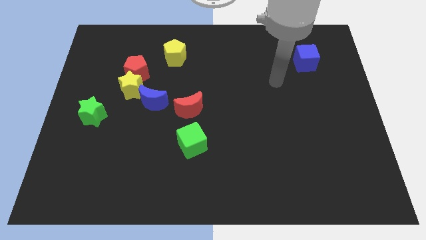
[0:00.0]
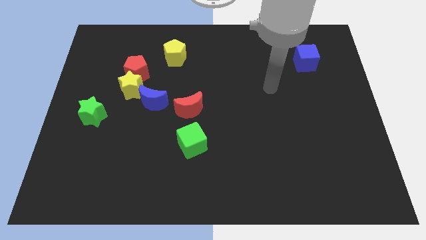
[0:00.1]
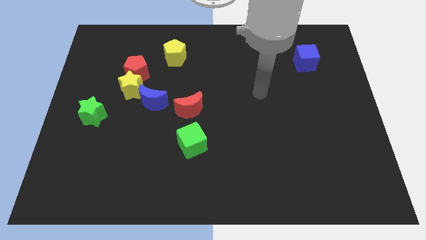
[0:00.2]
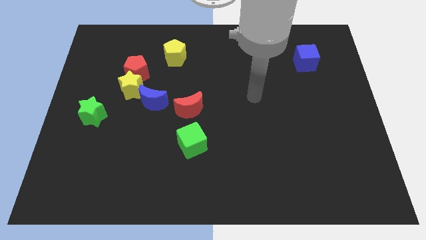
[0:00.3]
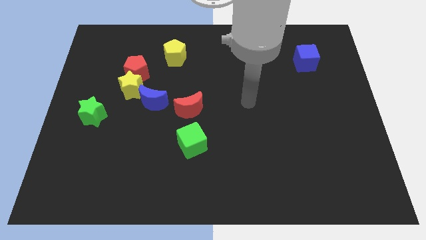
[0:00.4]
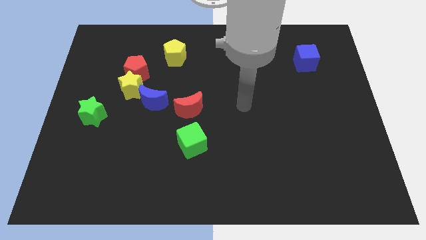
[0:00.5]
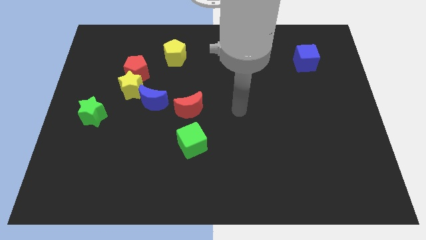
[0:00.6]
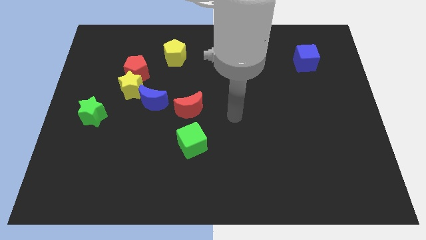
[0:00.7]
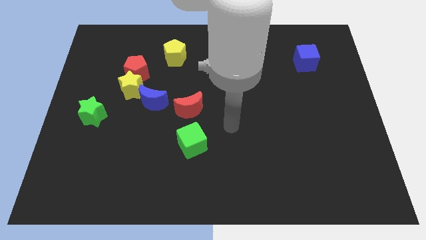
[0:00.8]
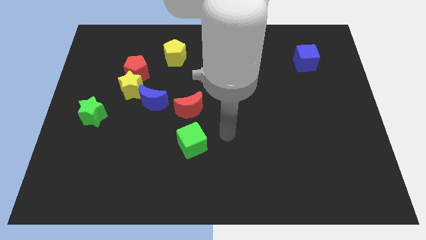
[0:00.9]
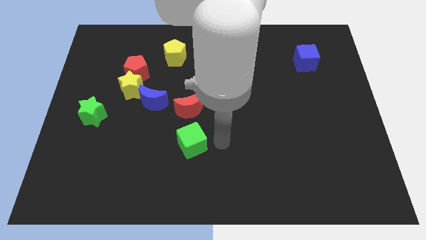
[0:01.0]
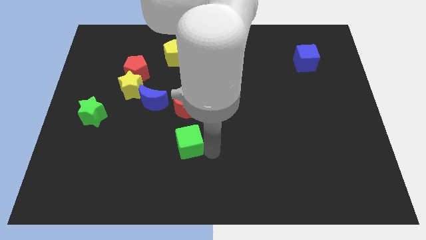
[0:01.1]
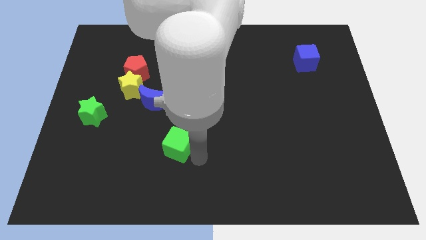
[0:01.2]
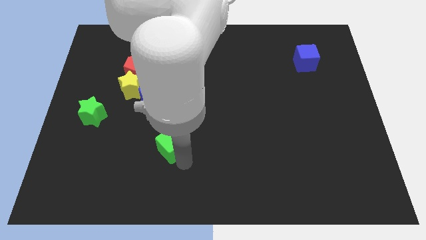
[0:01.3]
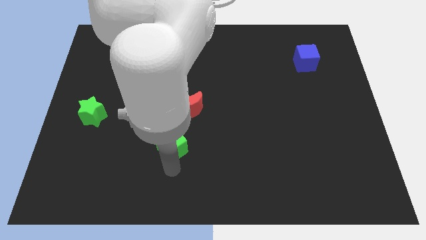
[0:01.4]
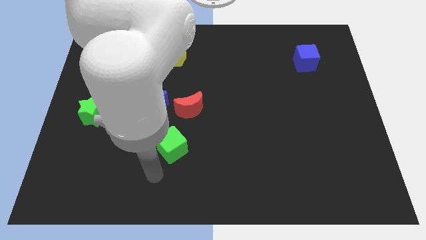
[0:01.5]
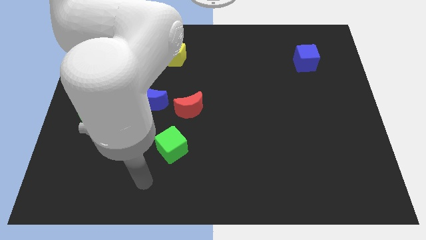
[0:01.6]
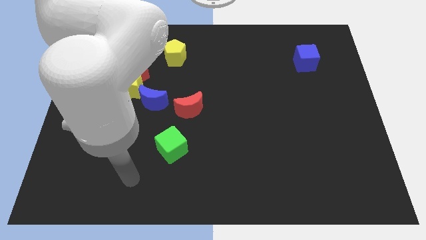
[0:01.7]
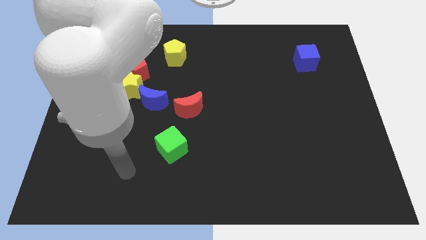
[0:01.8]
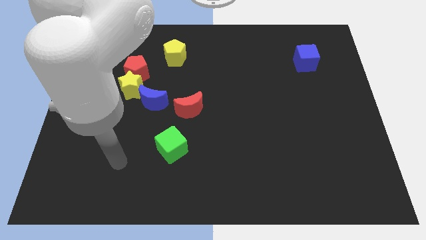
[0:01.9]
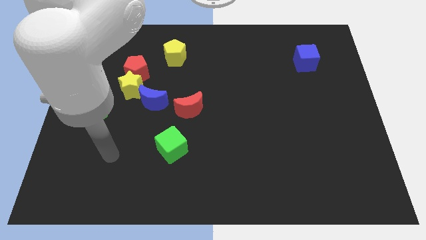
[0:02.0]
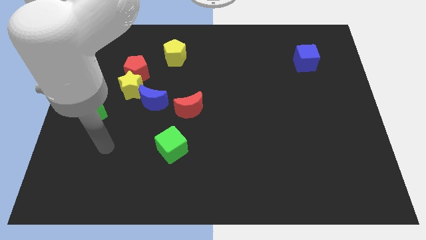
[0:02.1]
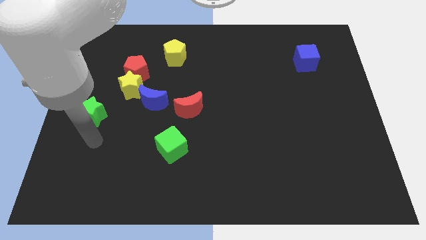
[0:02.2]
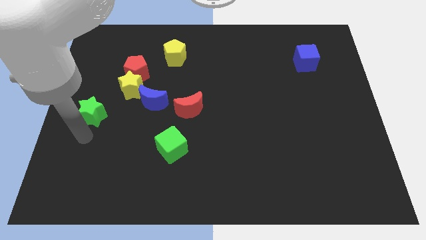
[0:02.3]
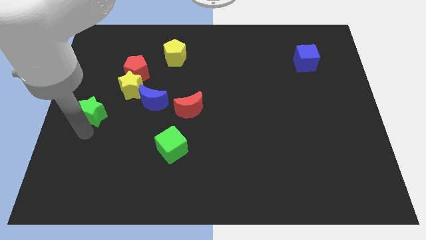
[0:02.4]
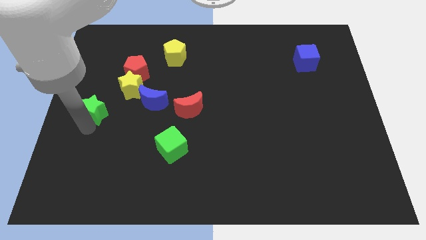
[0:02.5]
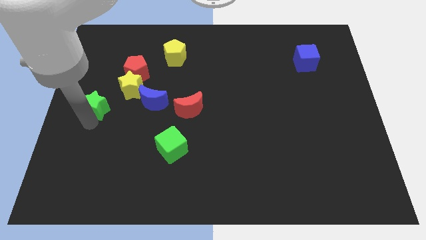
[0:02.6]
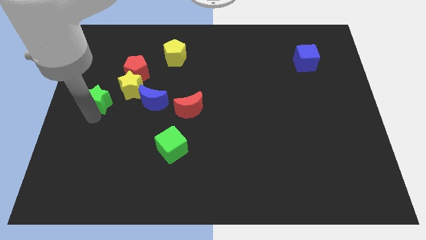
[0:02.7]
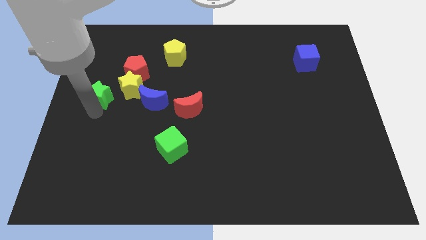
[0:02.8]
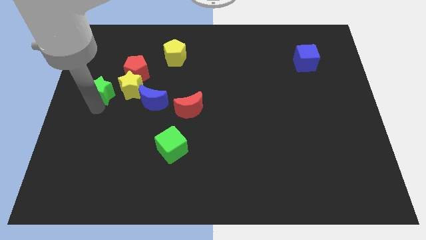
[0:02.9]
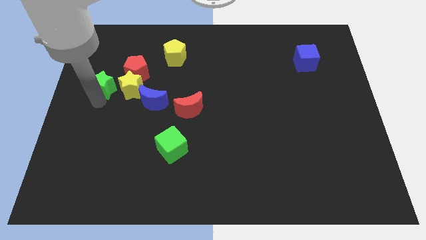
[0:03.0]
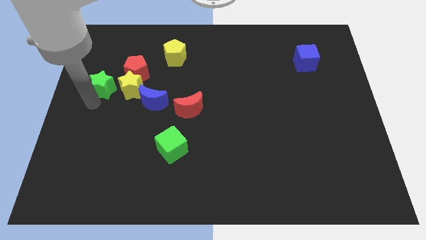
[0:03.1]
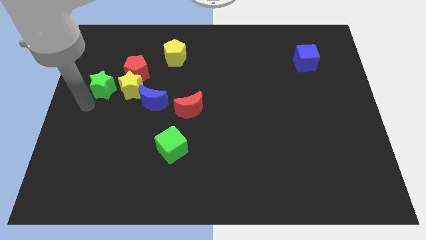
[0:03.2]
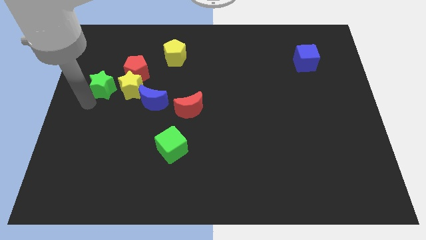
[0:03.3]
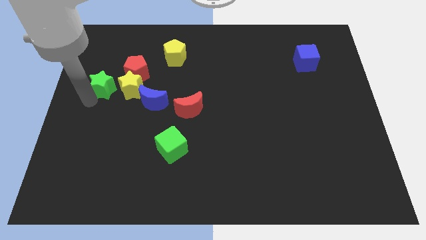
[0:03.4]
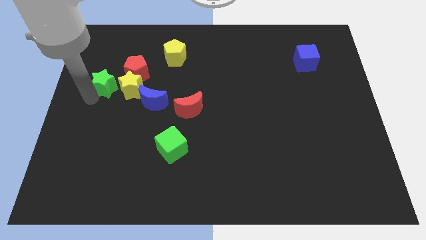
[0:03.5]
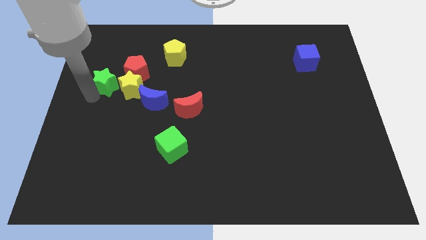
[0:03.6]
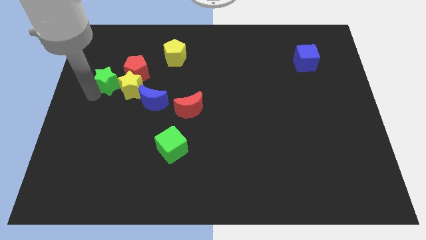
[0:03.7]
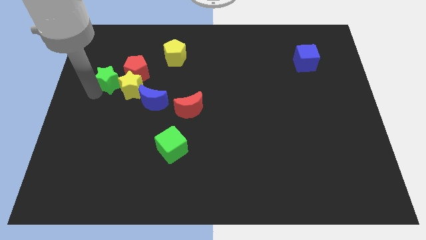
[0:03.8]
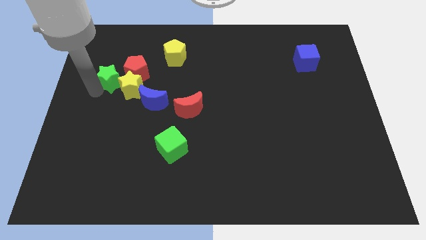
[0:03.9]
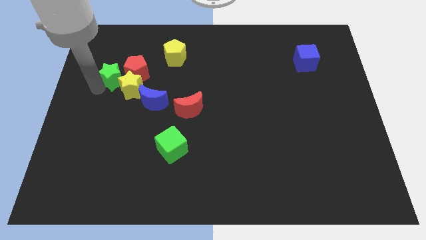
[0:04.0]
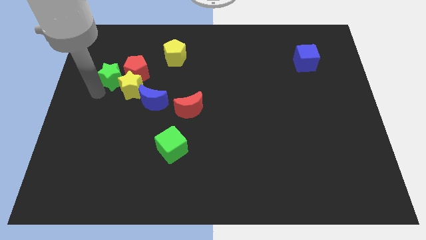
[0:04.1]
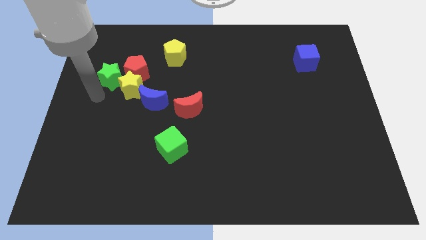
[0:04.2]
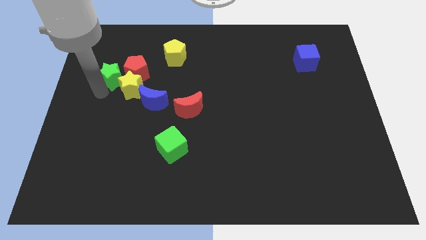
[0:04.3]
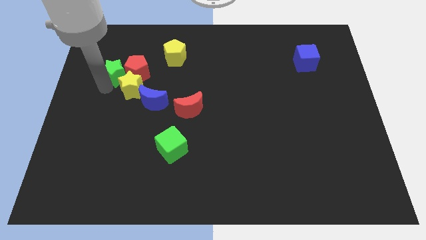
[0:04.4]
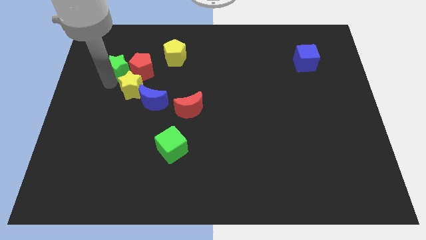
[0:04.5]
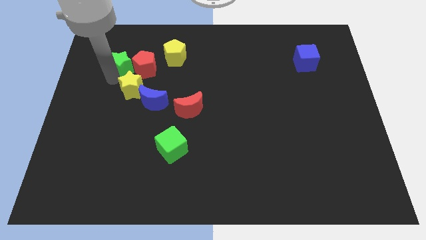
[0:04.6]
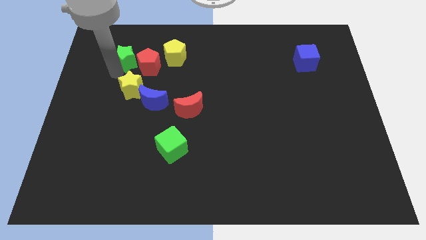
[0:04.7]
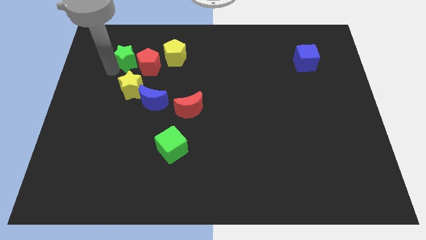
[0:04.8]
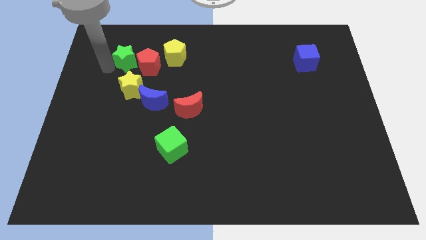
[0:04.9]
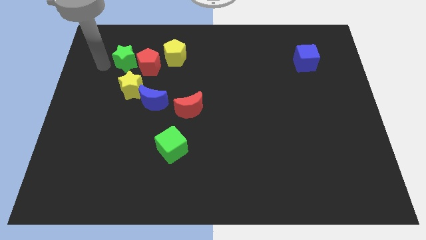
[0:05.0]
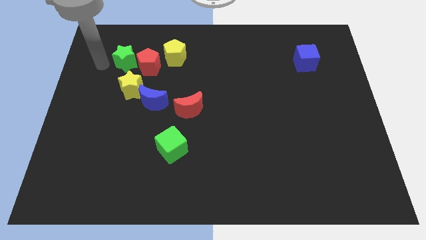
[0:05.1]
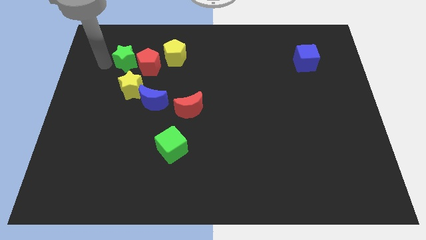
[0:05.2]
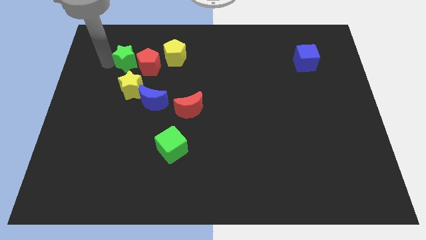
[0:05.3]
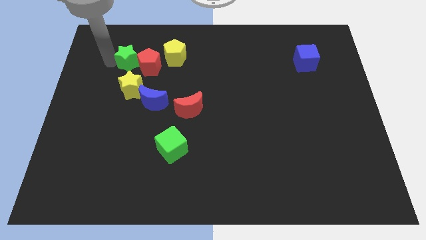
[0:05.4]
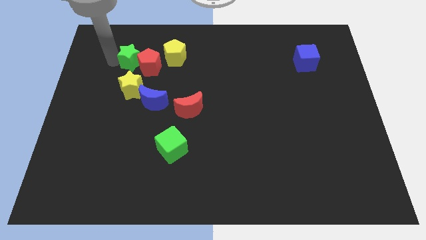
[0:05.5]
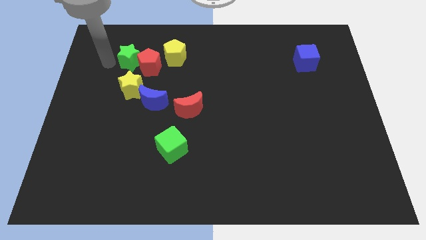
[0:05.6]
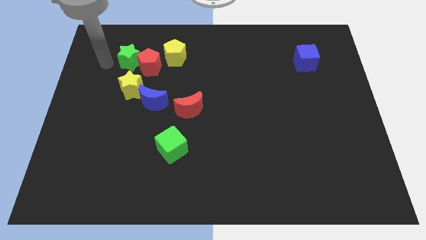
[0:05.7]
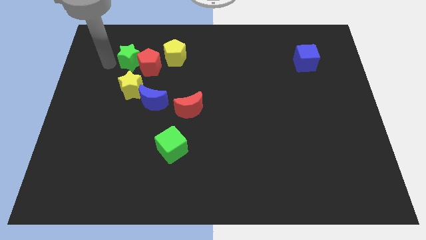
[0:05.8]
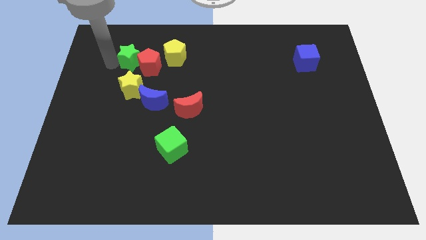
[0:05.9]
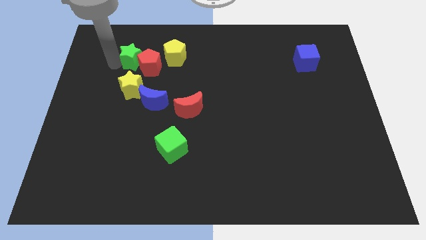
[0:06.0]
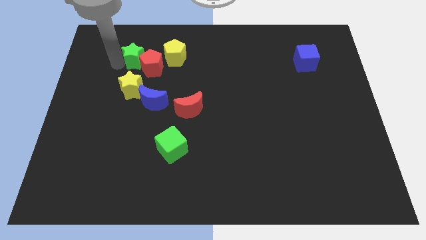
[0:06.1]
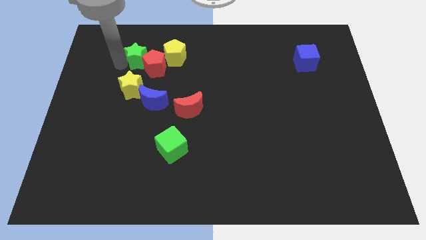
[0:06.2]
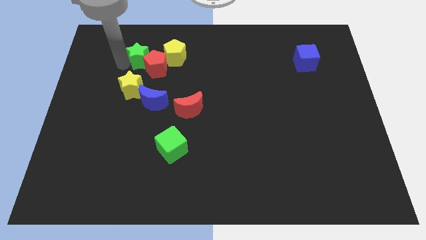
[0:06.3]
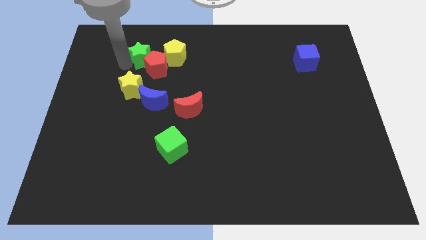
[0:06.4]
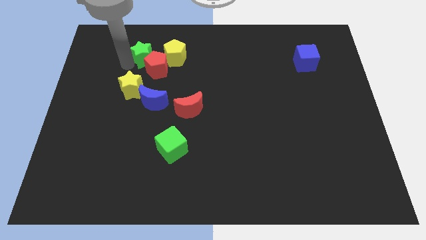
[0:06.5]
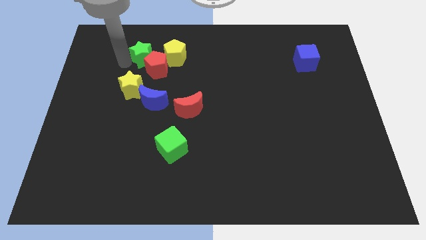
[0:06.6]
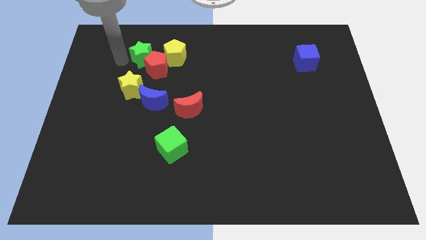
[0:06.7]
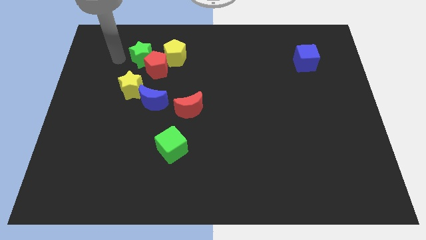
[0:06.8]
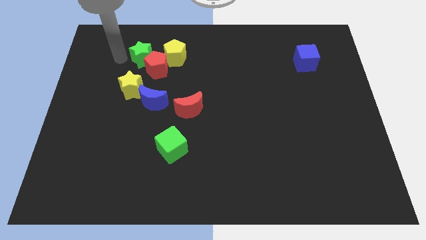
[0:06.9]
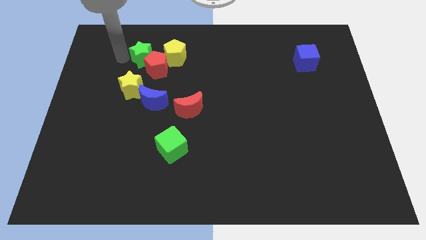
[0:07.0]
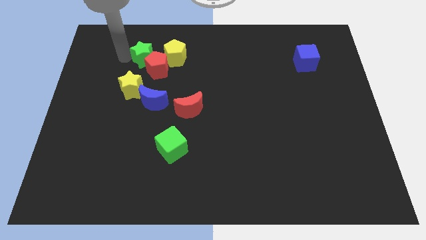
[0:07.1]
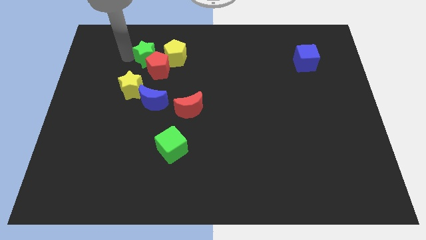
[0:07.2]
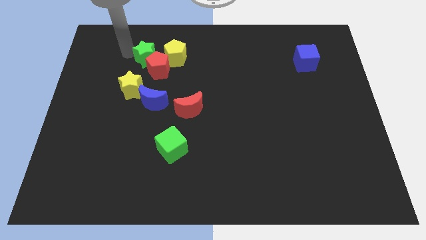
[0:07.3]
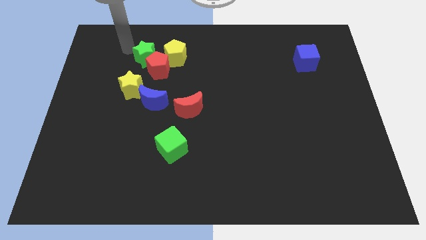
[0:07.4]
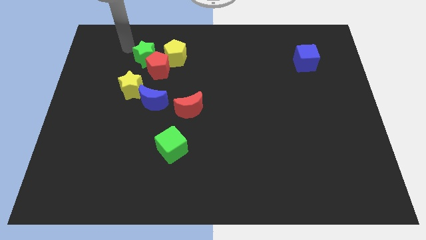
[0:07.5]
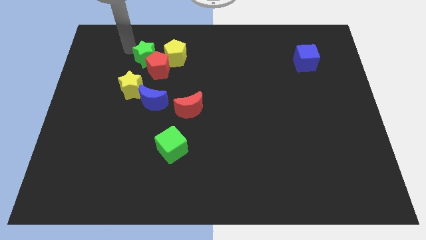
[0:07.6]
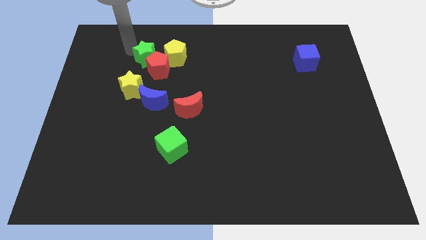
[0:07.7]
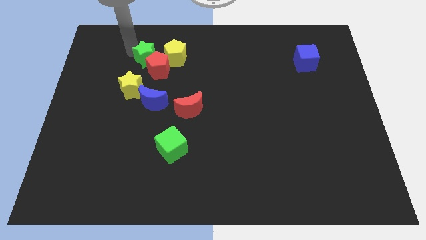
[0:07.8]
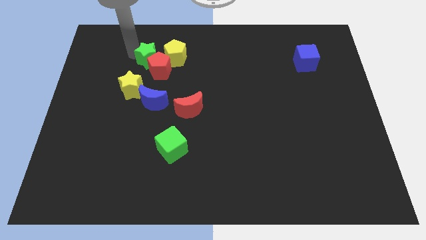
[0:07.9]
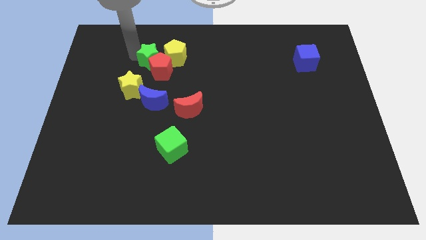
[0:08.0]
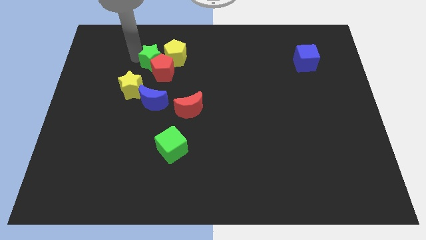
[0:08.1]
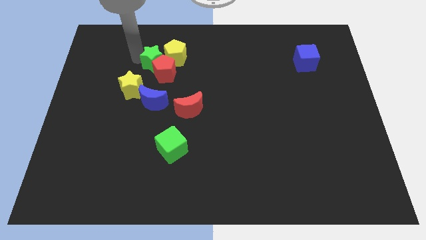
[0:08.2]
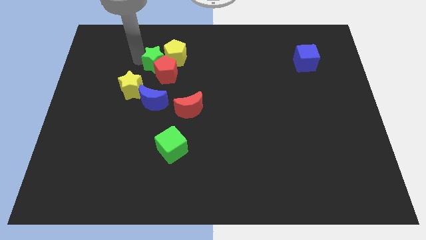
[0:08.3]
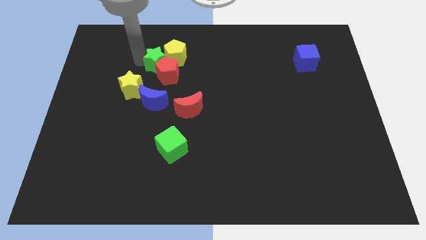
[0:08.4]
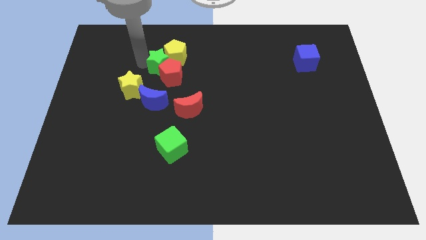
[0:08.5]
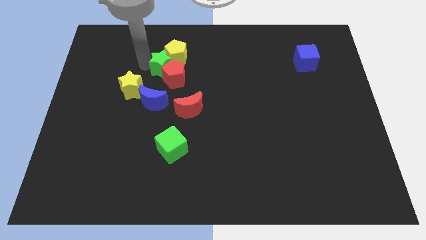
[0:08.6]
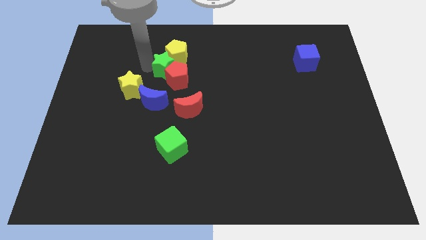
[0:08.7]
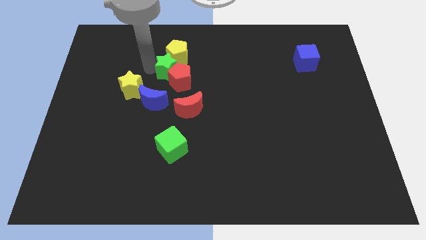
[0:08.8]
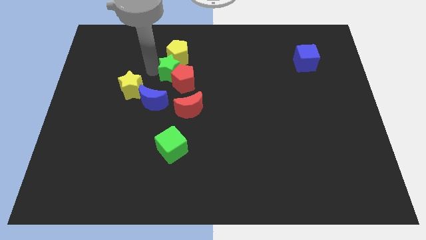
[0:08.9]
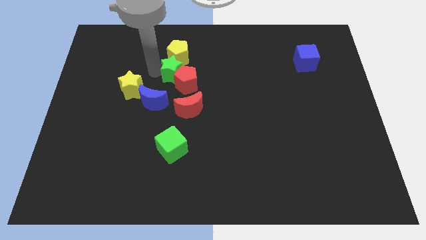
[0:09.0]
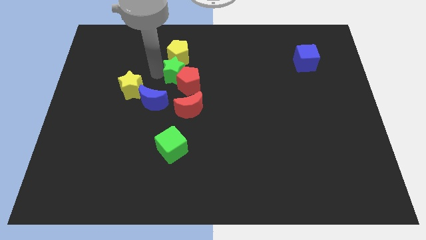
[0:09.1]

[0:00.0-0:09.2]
push the green star to the bottom right side of the yellow pentagon
